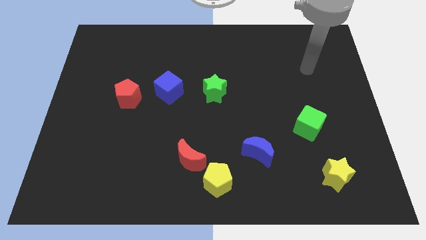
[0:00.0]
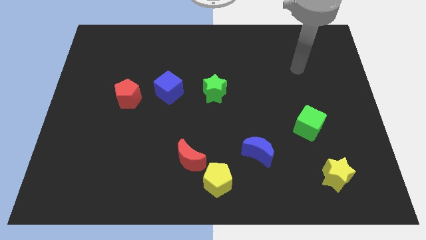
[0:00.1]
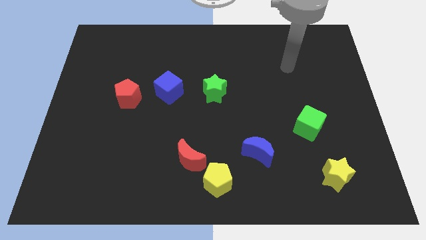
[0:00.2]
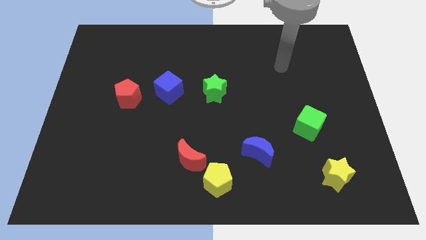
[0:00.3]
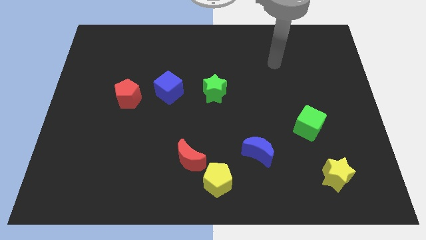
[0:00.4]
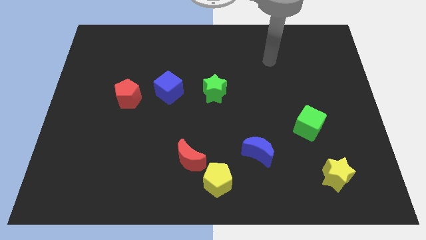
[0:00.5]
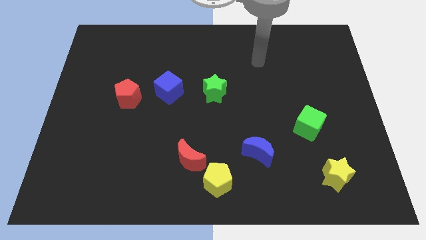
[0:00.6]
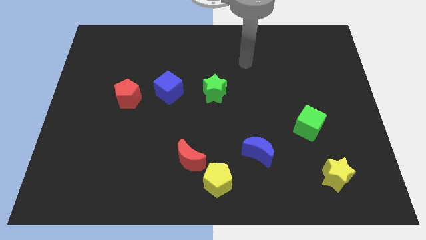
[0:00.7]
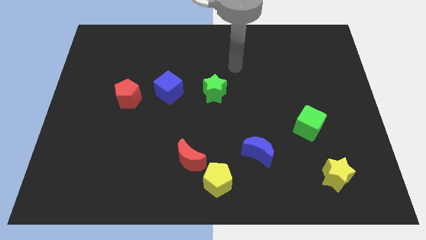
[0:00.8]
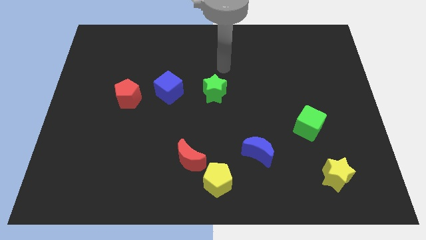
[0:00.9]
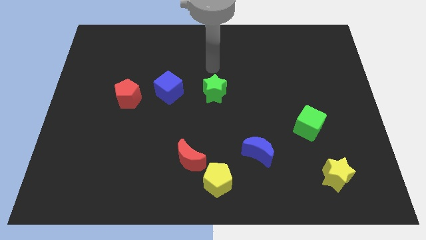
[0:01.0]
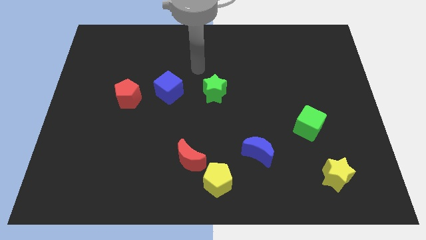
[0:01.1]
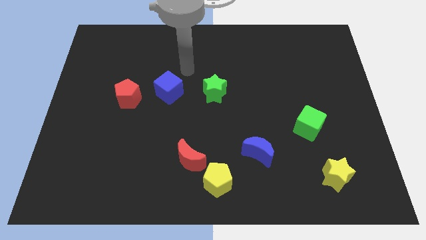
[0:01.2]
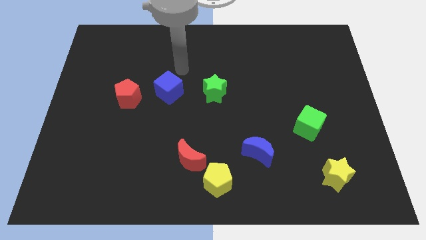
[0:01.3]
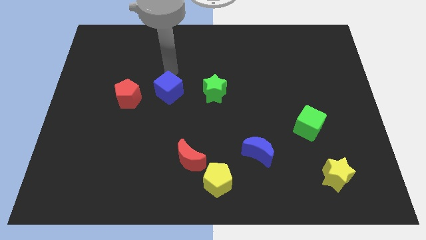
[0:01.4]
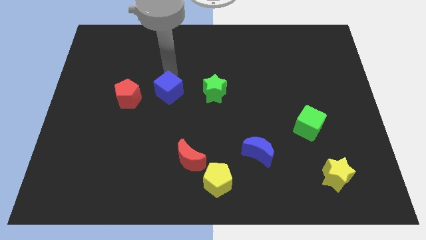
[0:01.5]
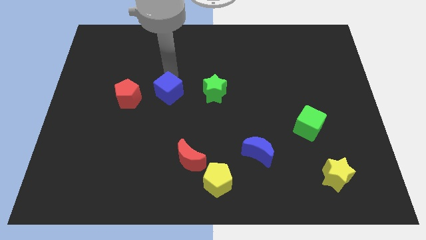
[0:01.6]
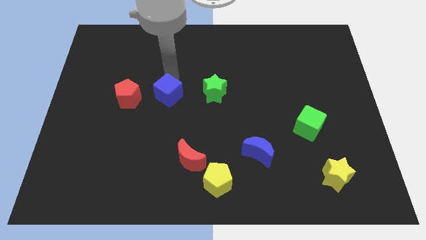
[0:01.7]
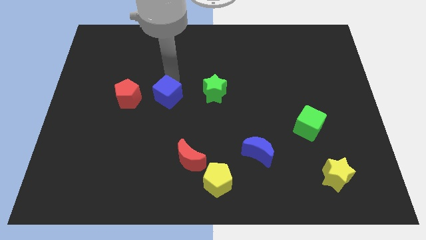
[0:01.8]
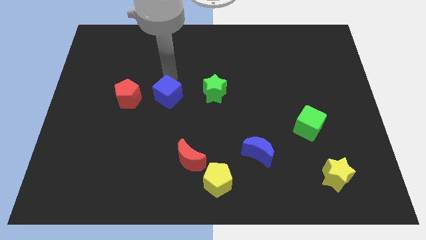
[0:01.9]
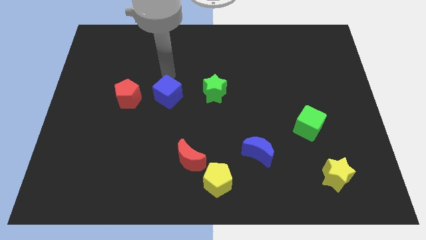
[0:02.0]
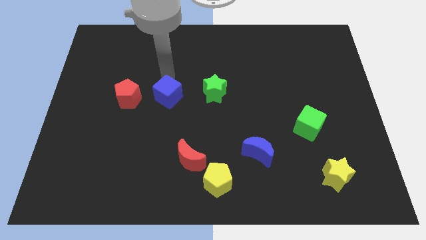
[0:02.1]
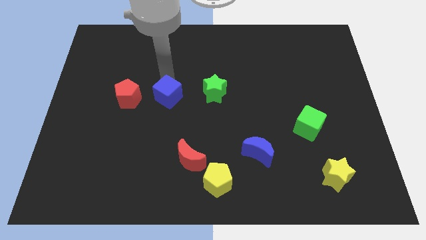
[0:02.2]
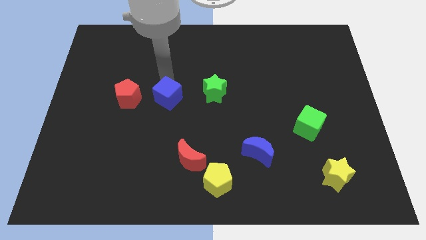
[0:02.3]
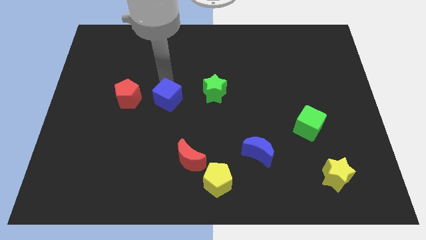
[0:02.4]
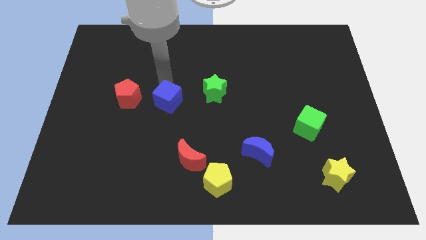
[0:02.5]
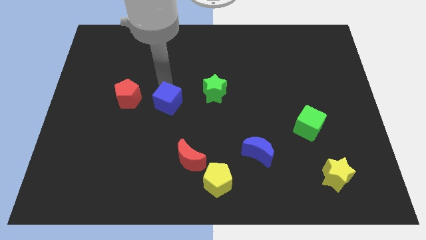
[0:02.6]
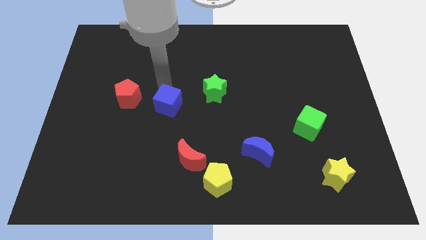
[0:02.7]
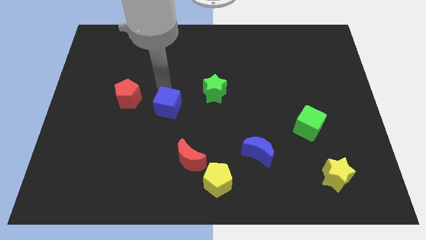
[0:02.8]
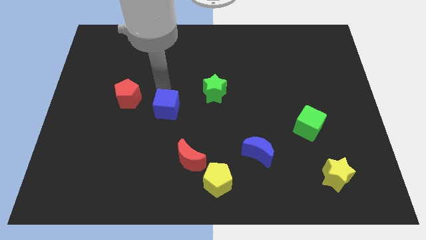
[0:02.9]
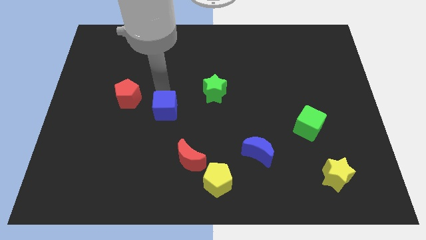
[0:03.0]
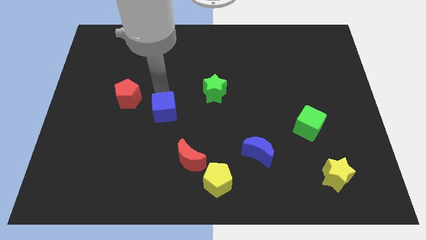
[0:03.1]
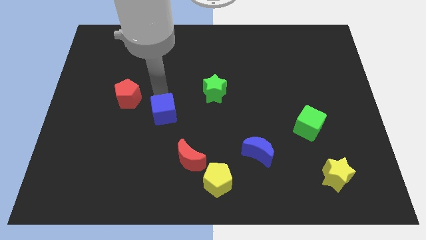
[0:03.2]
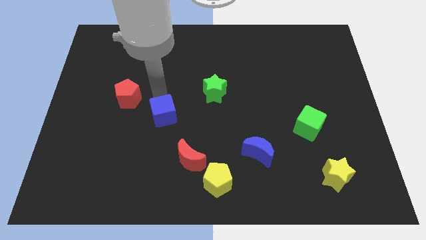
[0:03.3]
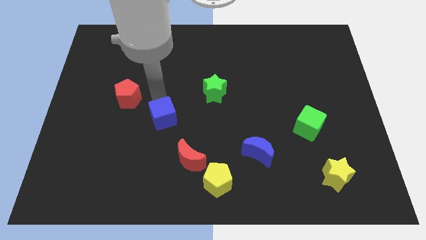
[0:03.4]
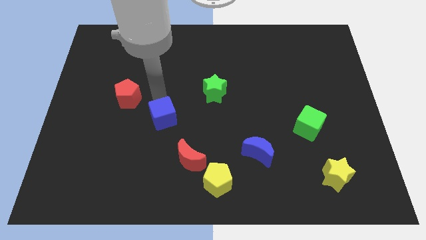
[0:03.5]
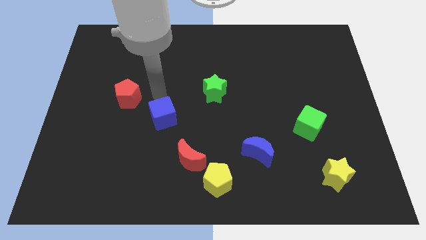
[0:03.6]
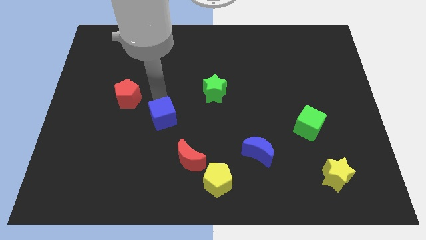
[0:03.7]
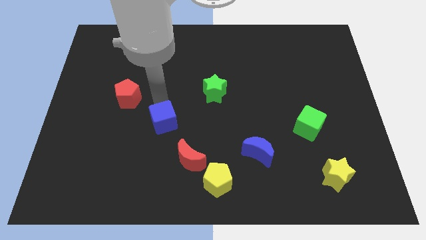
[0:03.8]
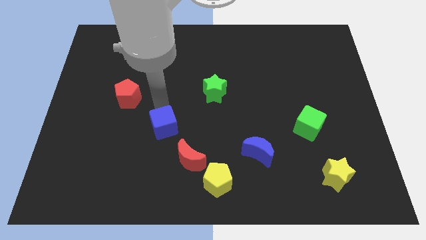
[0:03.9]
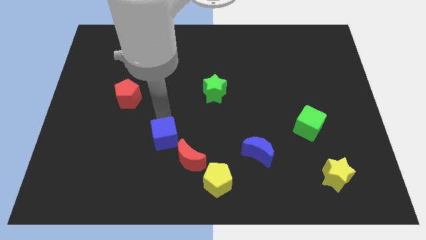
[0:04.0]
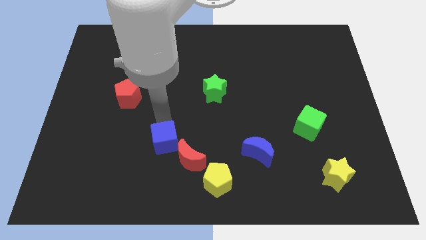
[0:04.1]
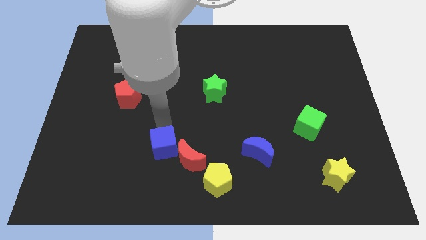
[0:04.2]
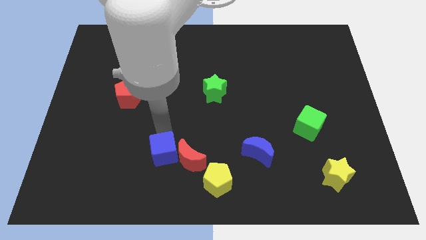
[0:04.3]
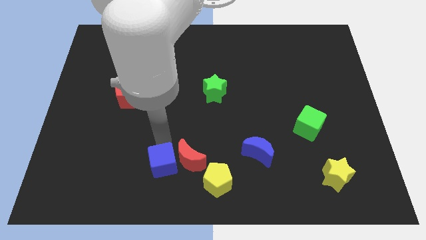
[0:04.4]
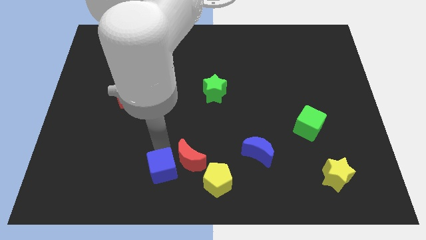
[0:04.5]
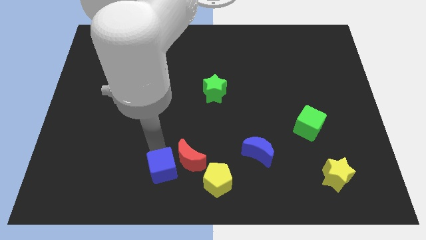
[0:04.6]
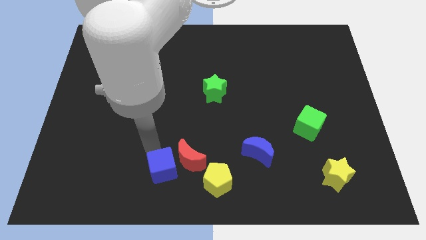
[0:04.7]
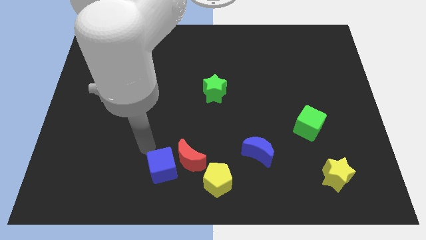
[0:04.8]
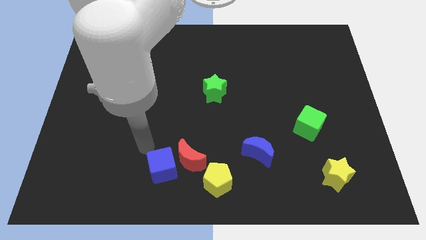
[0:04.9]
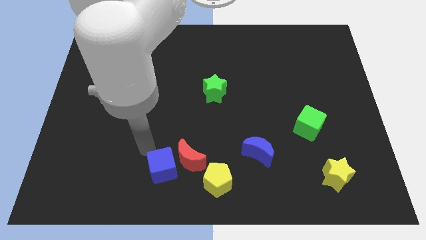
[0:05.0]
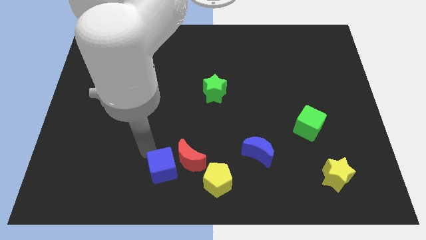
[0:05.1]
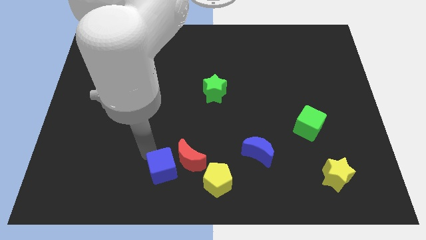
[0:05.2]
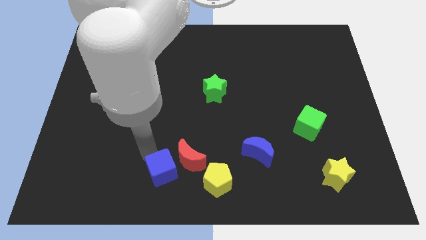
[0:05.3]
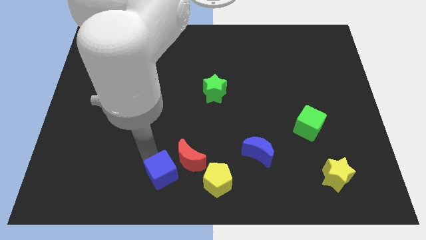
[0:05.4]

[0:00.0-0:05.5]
slide the blue cube to the bottom

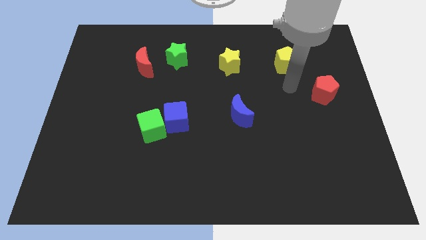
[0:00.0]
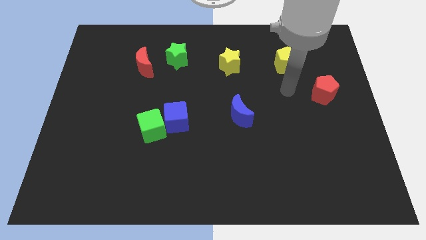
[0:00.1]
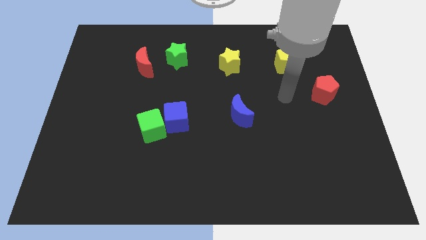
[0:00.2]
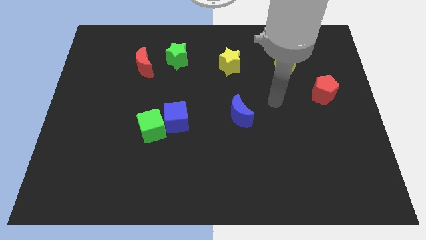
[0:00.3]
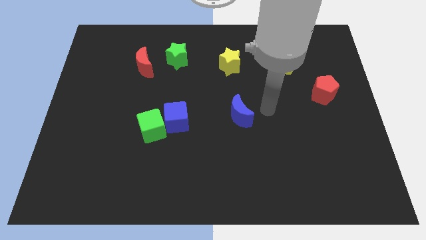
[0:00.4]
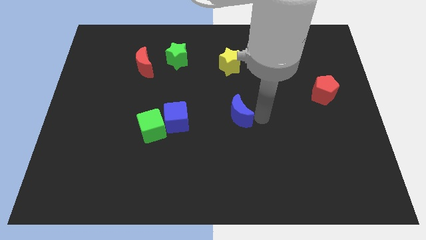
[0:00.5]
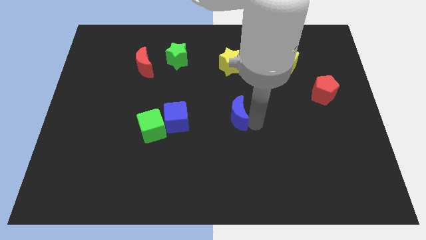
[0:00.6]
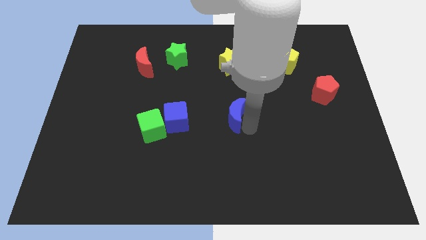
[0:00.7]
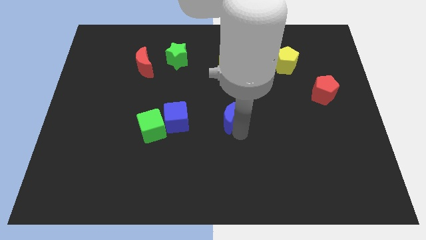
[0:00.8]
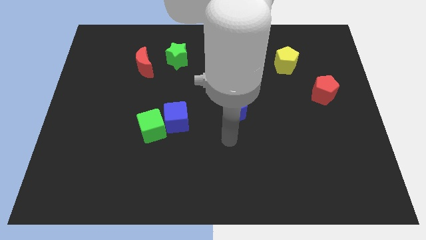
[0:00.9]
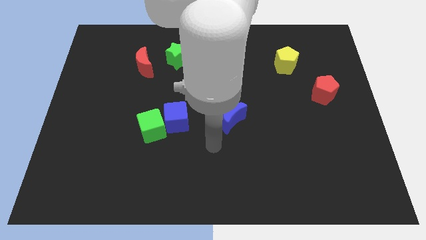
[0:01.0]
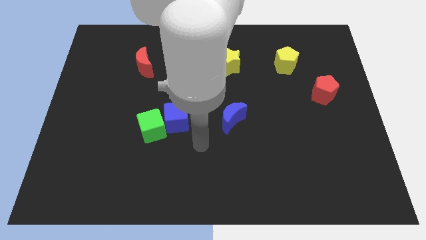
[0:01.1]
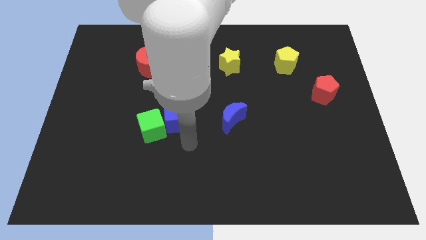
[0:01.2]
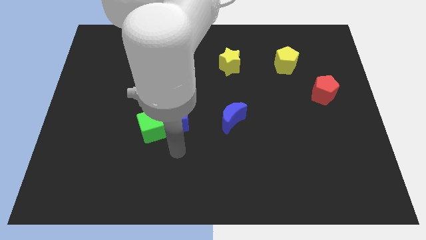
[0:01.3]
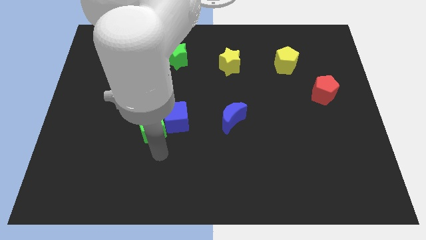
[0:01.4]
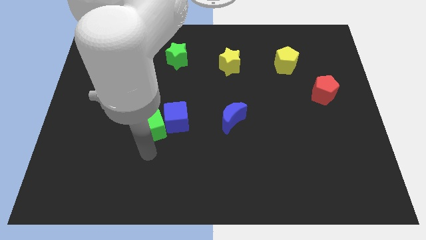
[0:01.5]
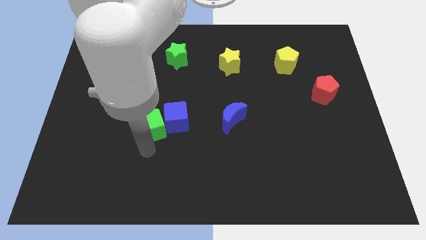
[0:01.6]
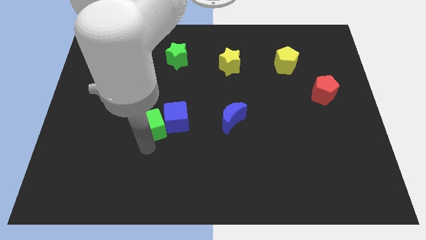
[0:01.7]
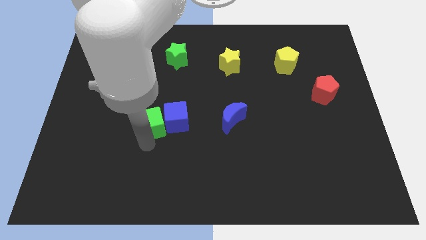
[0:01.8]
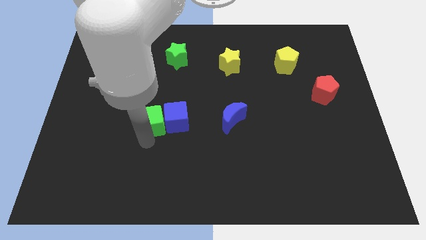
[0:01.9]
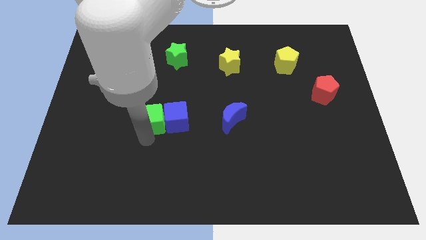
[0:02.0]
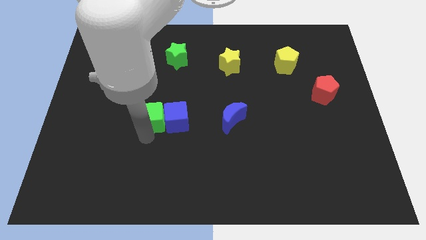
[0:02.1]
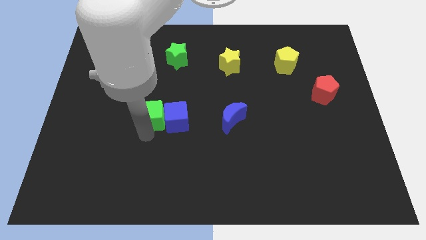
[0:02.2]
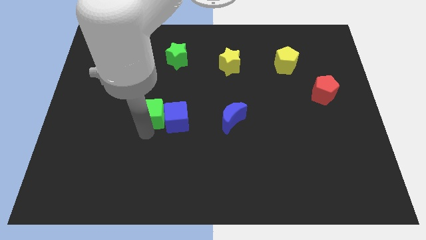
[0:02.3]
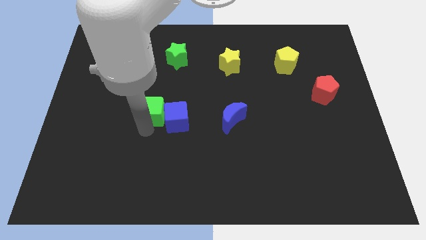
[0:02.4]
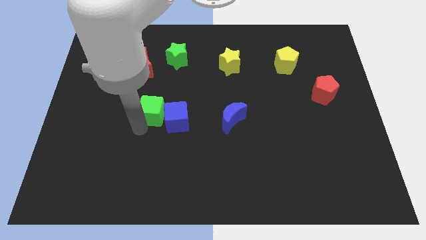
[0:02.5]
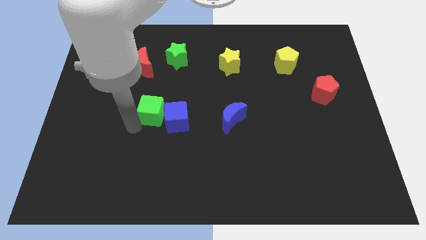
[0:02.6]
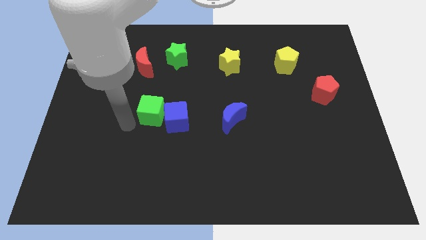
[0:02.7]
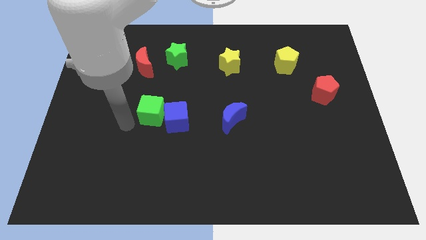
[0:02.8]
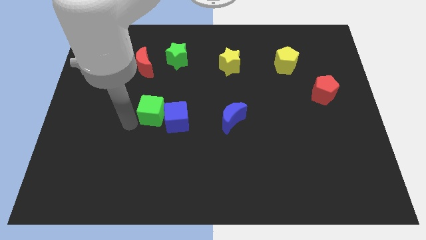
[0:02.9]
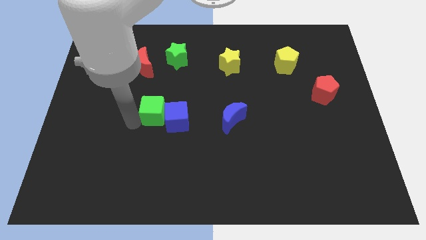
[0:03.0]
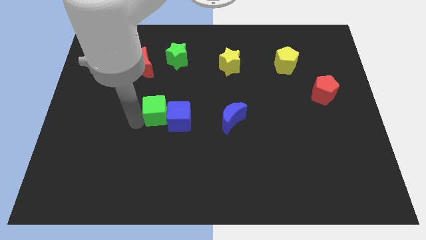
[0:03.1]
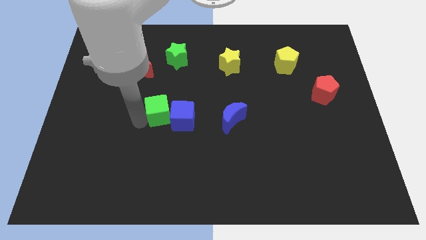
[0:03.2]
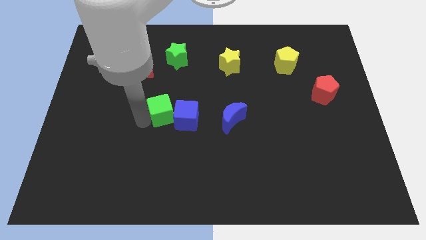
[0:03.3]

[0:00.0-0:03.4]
push the green cube to the center
